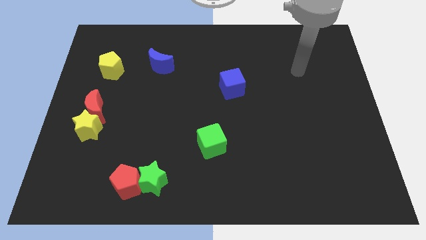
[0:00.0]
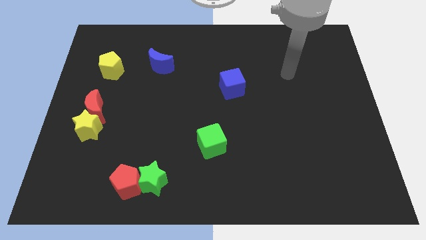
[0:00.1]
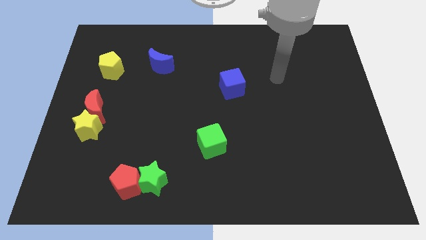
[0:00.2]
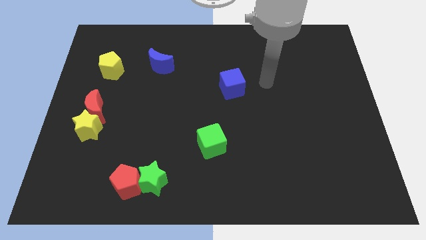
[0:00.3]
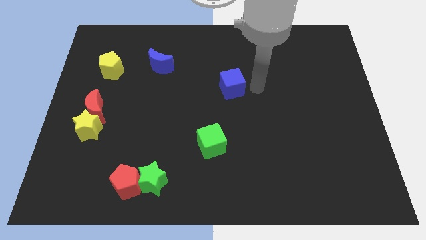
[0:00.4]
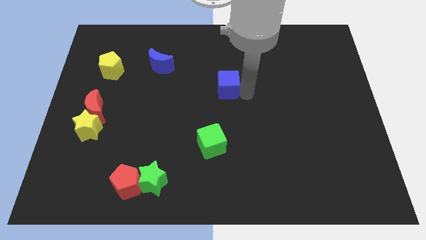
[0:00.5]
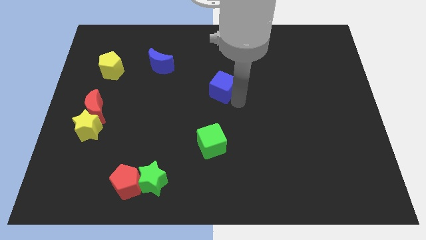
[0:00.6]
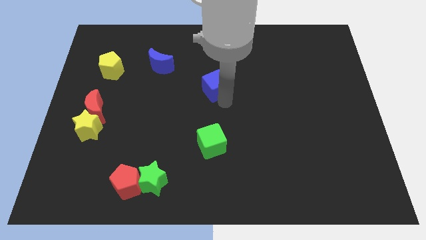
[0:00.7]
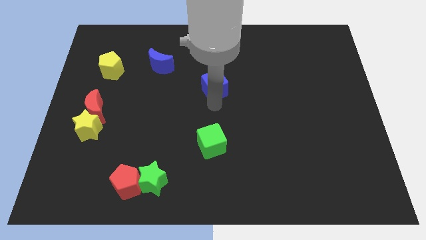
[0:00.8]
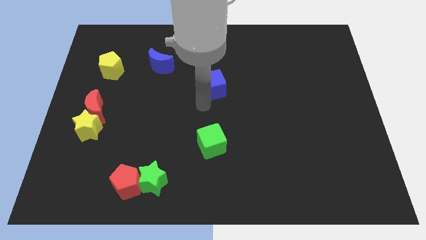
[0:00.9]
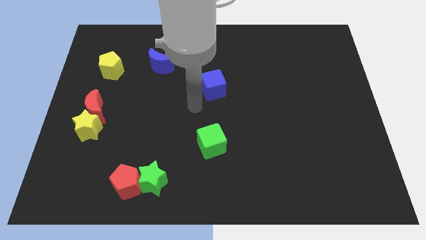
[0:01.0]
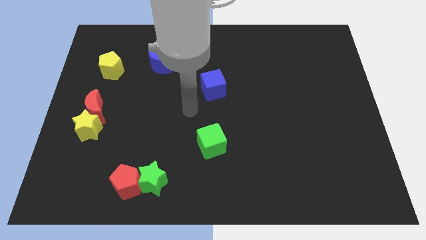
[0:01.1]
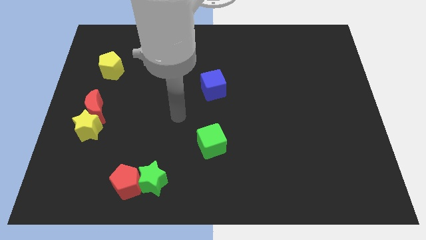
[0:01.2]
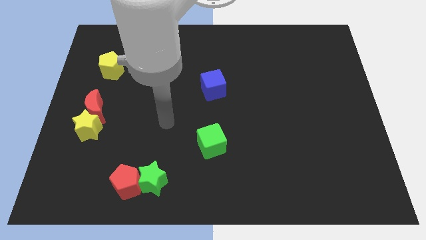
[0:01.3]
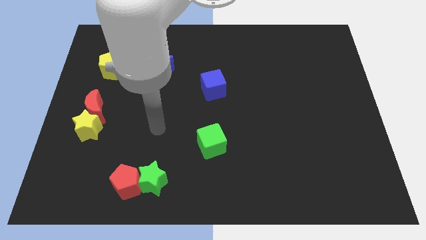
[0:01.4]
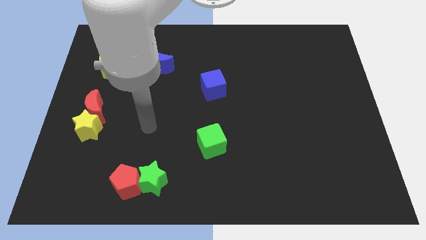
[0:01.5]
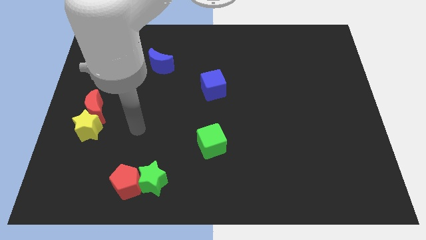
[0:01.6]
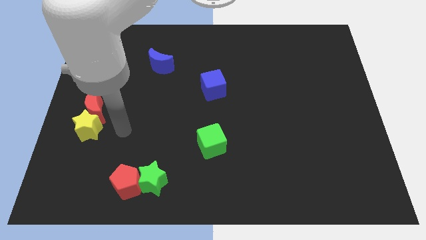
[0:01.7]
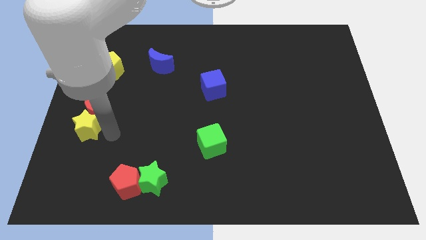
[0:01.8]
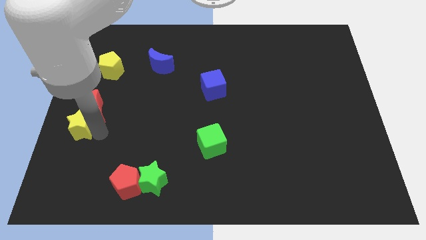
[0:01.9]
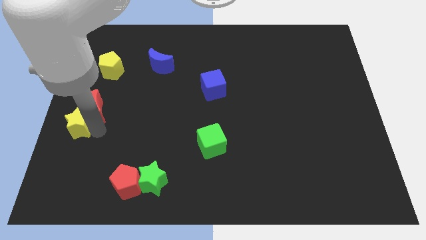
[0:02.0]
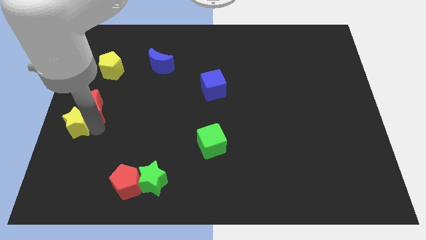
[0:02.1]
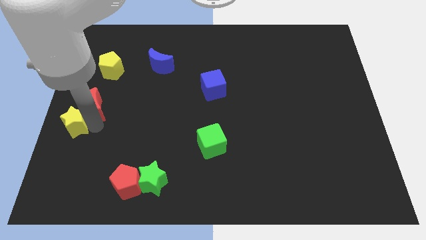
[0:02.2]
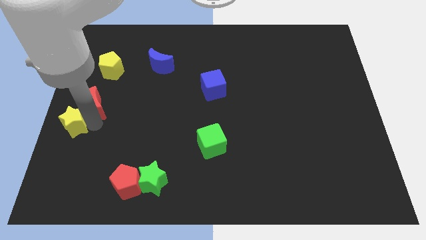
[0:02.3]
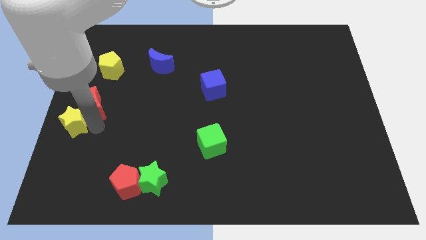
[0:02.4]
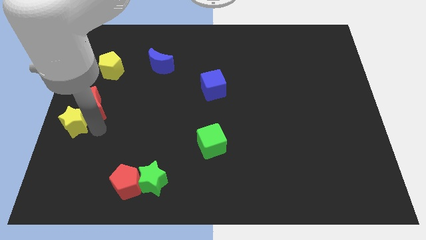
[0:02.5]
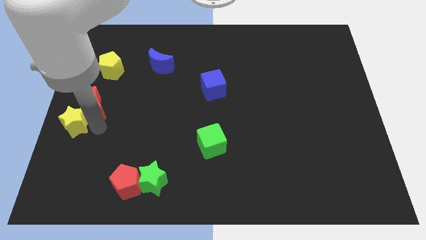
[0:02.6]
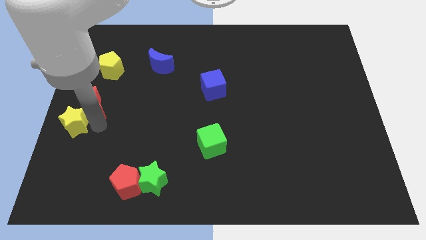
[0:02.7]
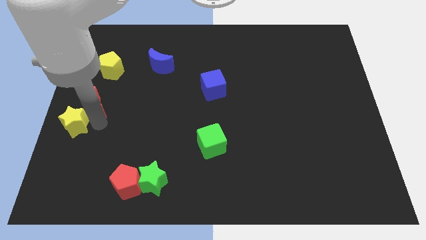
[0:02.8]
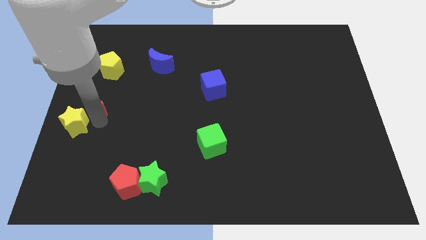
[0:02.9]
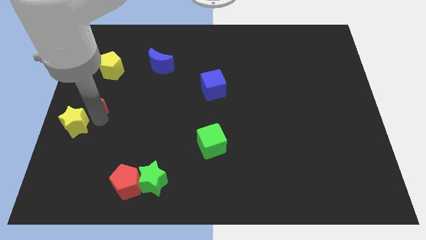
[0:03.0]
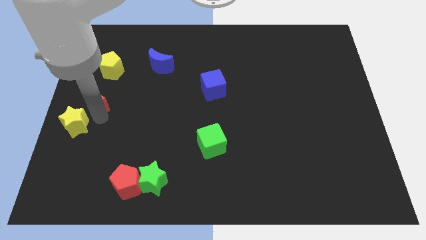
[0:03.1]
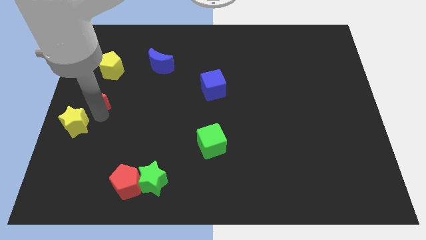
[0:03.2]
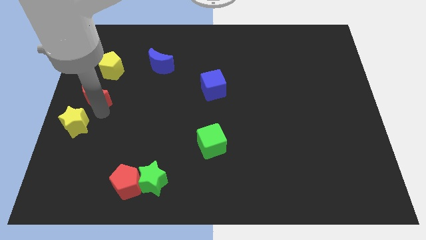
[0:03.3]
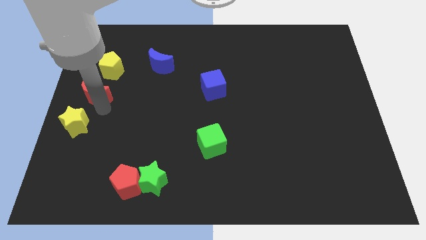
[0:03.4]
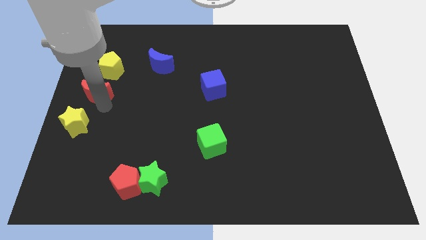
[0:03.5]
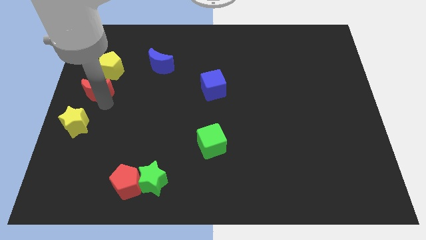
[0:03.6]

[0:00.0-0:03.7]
pull the red moon apart from the yellow star

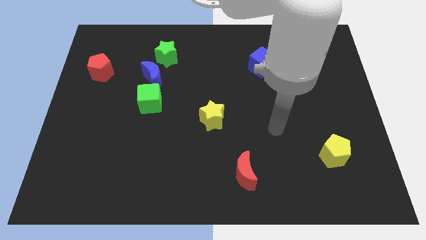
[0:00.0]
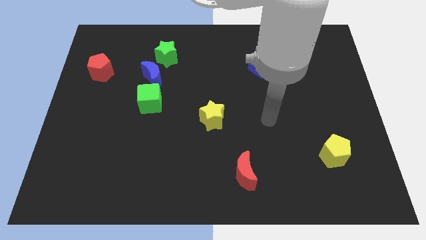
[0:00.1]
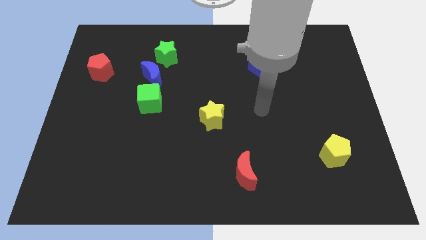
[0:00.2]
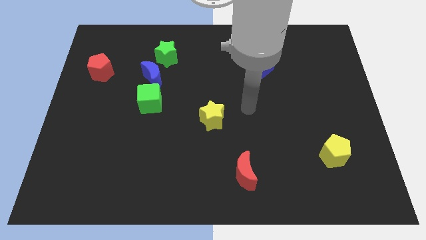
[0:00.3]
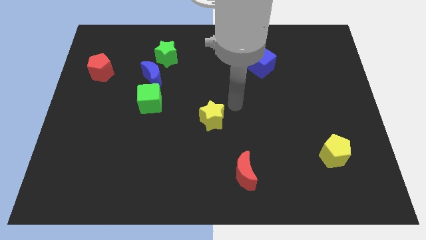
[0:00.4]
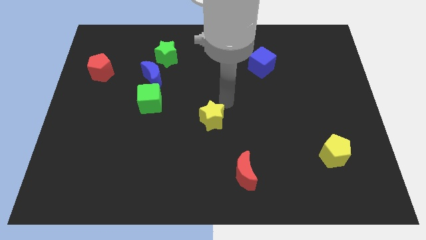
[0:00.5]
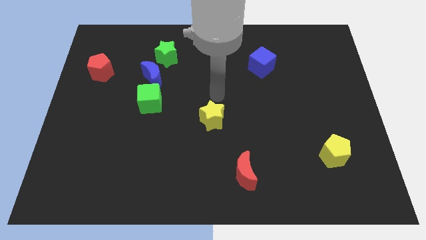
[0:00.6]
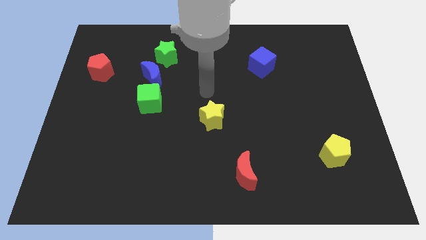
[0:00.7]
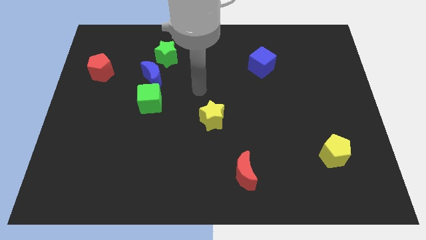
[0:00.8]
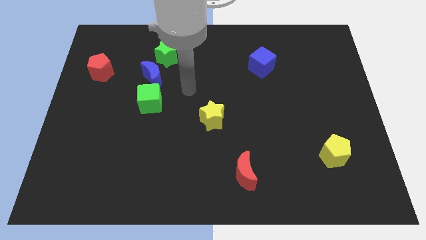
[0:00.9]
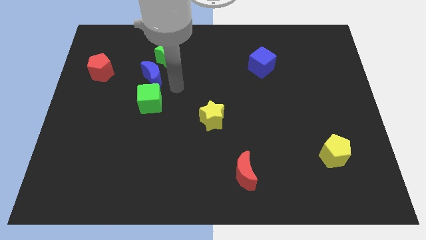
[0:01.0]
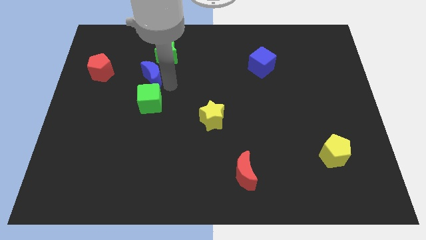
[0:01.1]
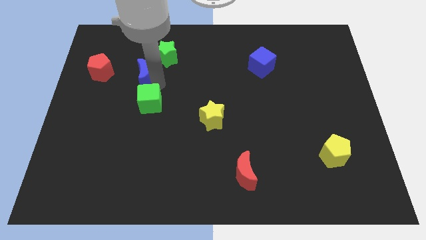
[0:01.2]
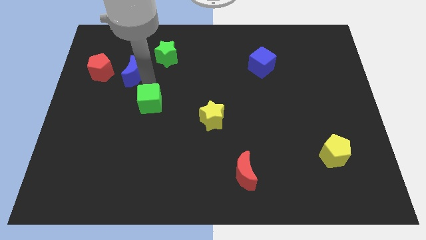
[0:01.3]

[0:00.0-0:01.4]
pull the green cube apart from the blue moon

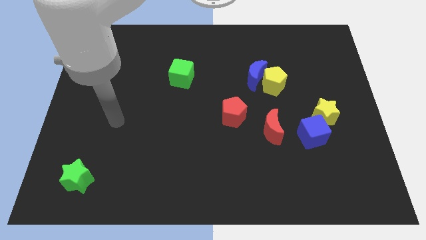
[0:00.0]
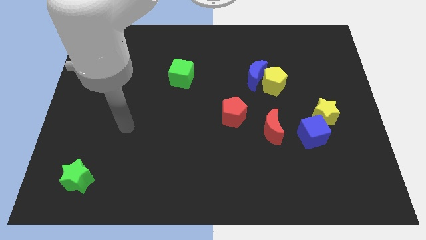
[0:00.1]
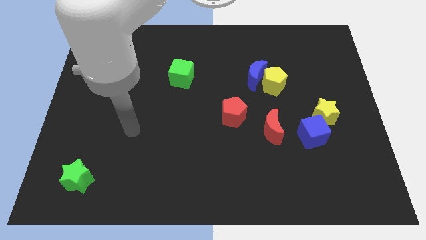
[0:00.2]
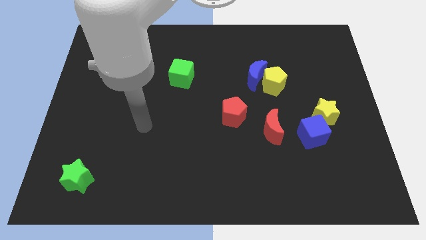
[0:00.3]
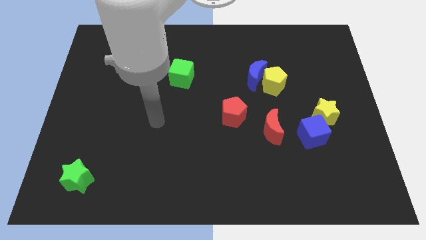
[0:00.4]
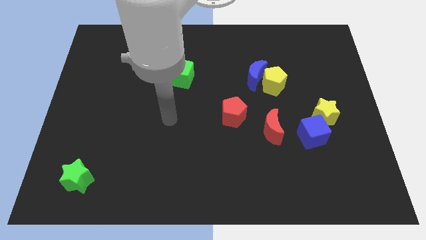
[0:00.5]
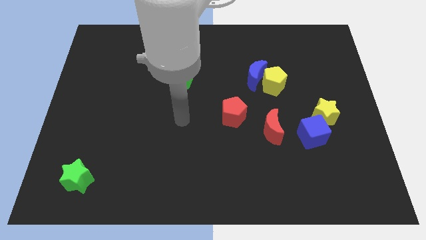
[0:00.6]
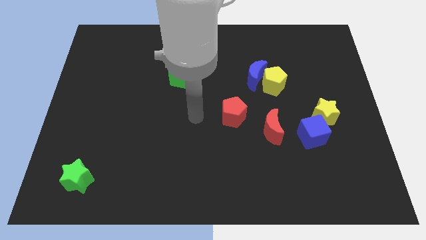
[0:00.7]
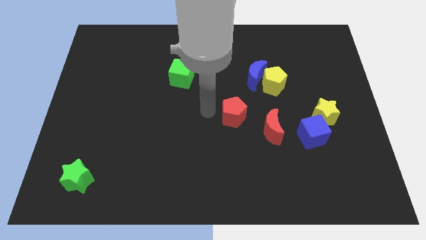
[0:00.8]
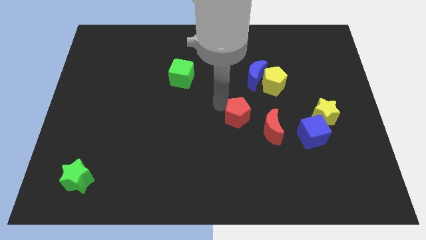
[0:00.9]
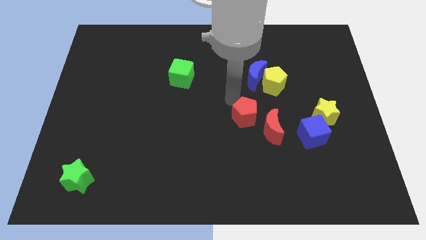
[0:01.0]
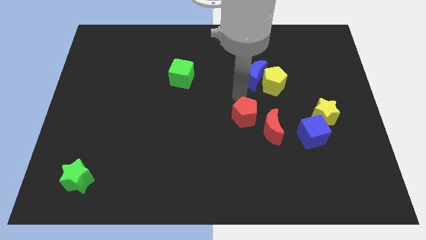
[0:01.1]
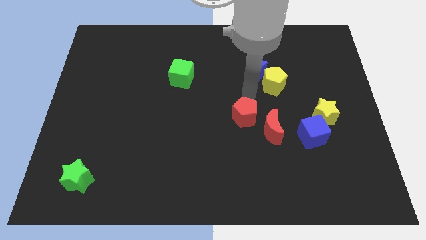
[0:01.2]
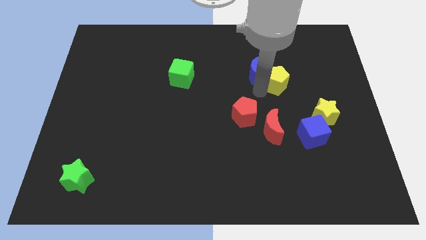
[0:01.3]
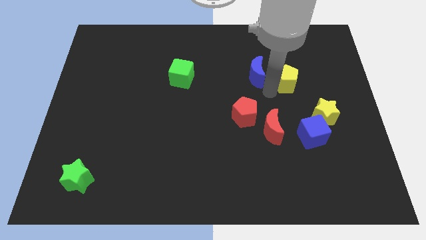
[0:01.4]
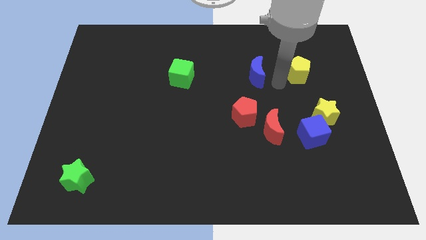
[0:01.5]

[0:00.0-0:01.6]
pull the blue moon apart from the yellow pentagon

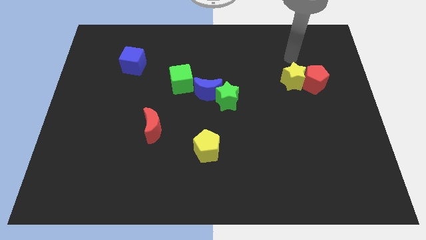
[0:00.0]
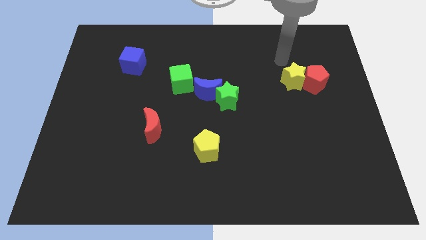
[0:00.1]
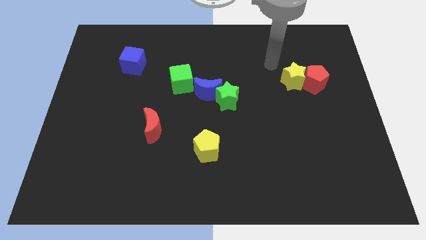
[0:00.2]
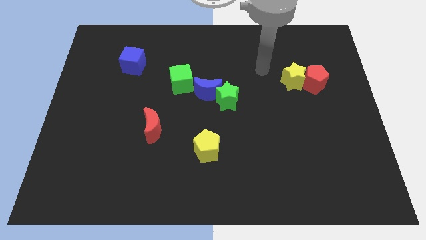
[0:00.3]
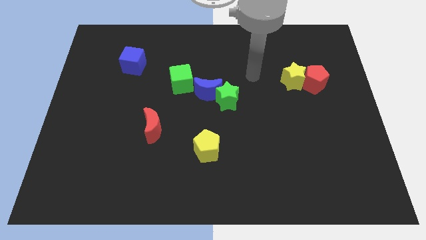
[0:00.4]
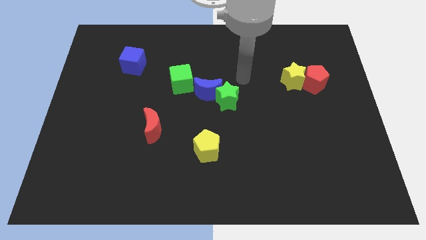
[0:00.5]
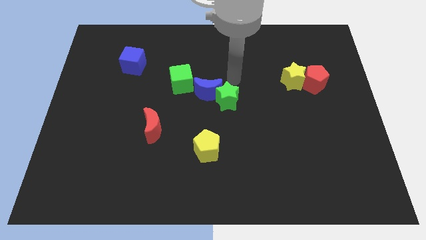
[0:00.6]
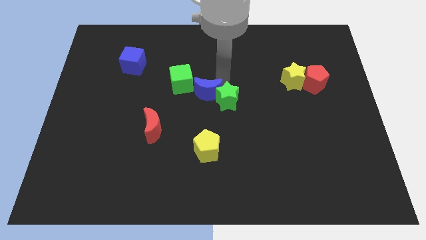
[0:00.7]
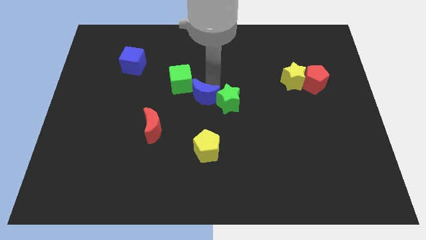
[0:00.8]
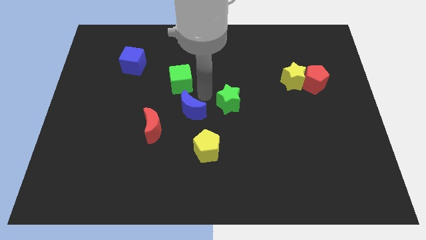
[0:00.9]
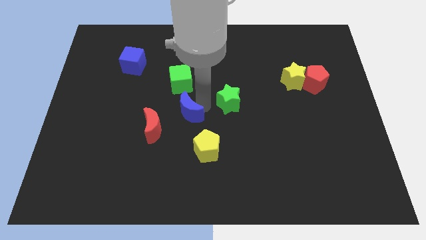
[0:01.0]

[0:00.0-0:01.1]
move the green star away from the blue moon

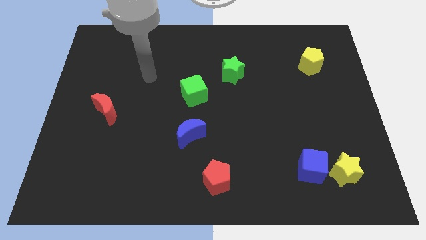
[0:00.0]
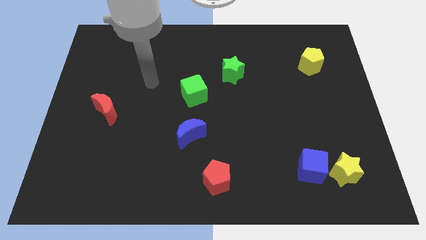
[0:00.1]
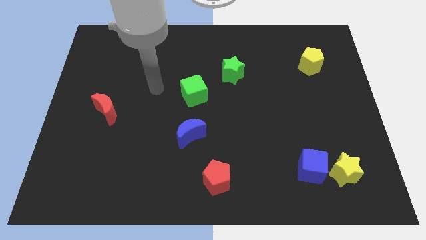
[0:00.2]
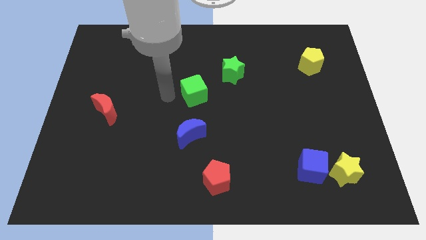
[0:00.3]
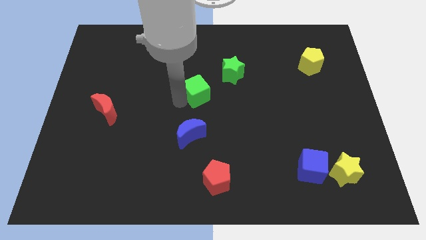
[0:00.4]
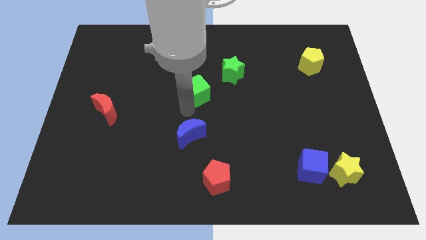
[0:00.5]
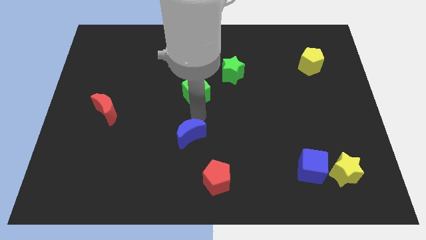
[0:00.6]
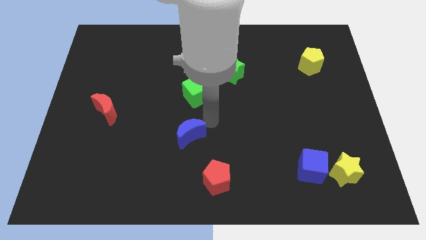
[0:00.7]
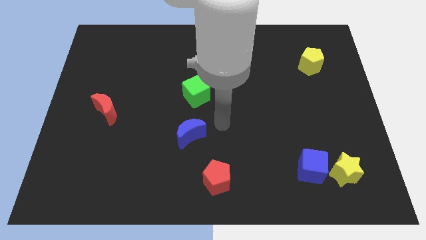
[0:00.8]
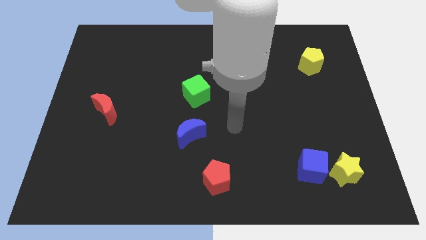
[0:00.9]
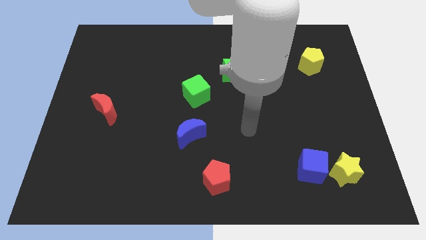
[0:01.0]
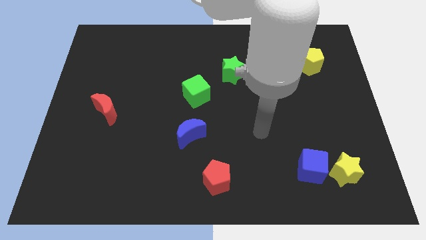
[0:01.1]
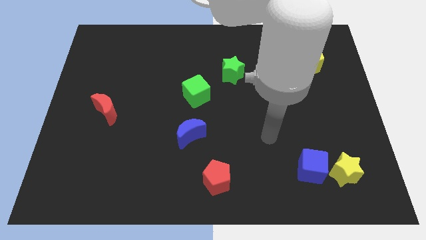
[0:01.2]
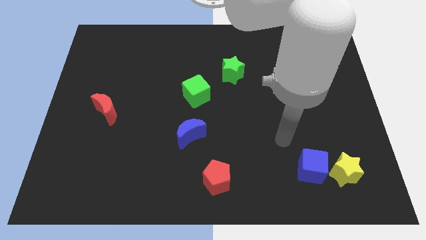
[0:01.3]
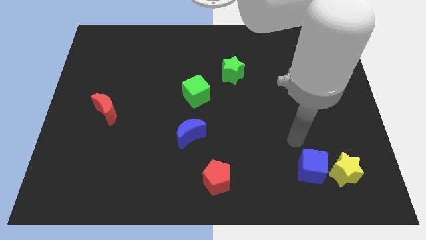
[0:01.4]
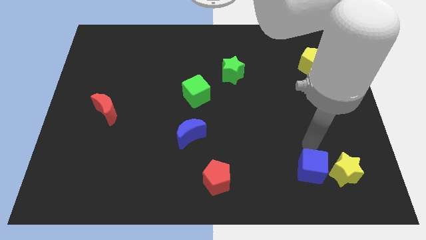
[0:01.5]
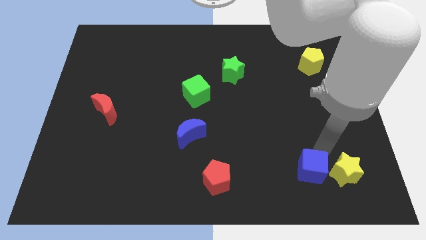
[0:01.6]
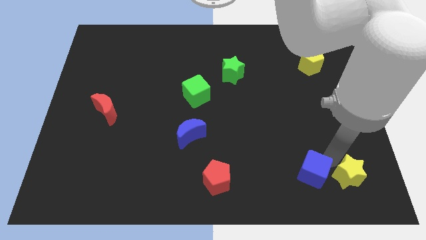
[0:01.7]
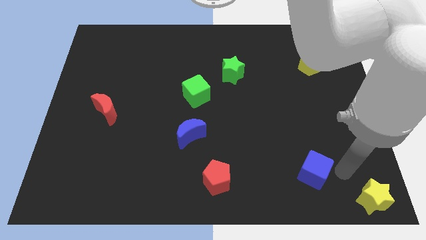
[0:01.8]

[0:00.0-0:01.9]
pull the blue cube apart from the yellow star
